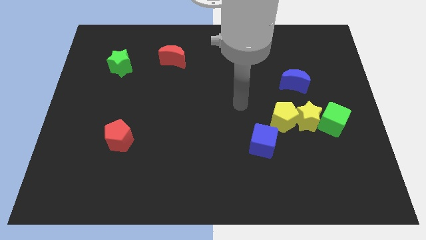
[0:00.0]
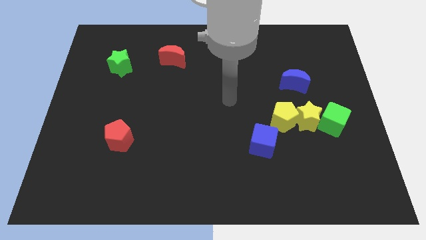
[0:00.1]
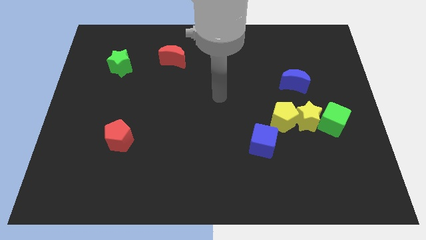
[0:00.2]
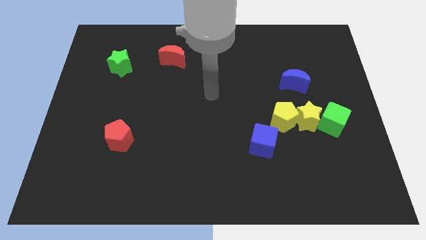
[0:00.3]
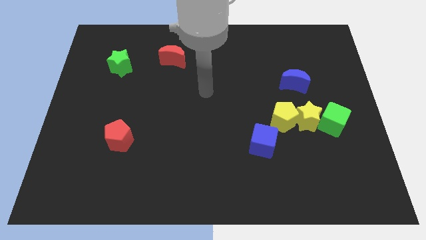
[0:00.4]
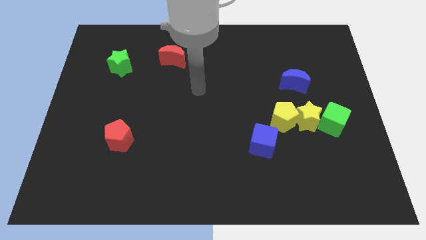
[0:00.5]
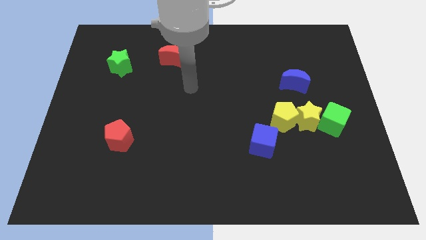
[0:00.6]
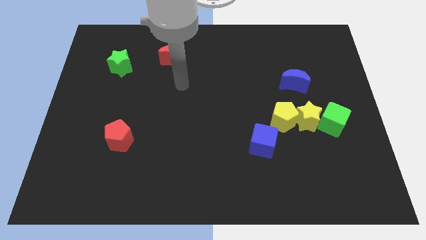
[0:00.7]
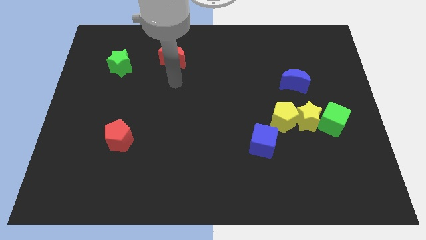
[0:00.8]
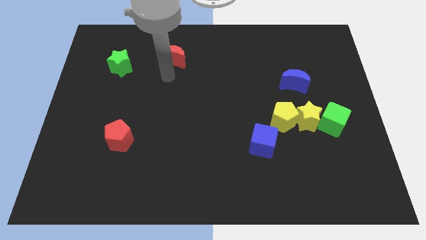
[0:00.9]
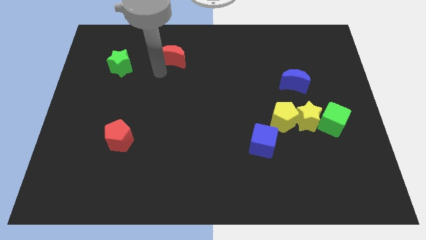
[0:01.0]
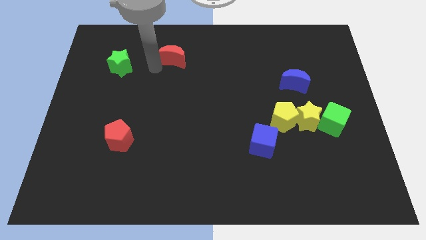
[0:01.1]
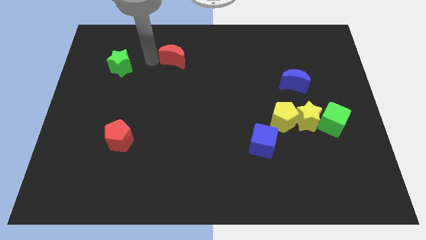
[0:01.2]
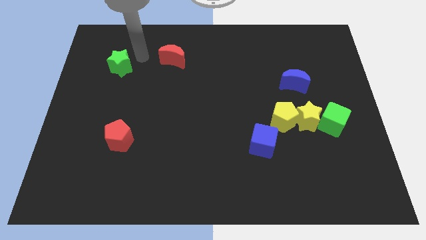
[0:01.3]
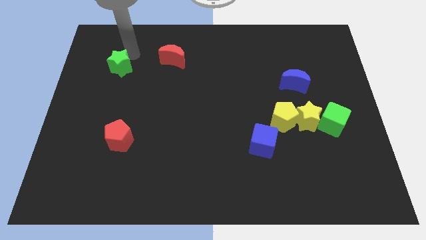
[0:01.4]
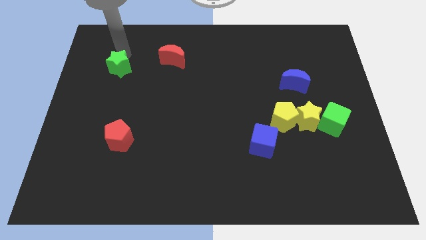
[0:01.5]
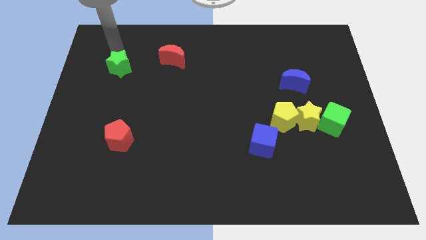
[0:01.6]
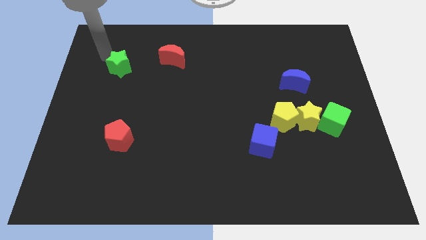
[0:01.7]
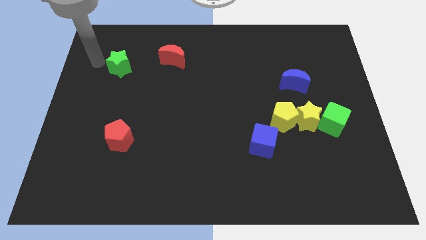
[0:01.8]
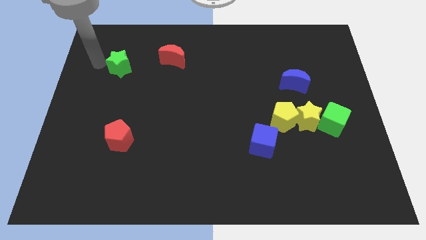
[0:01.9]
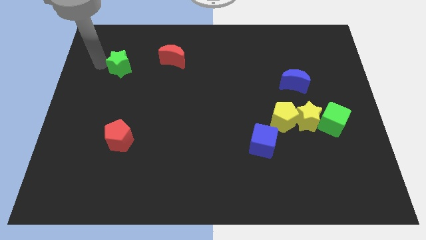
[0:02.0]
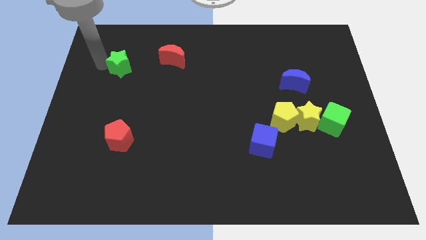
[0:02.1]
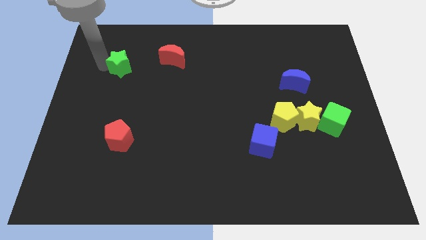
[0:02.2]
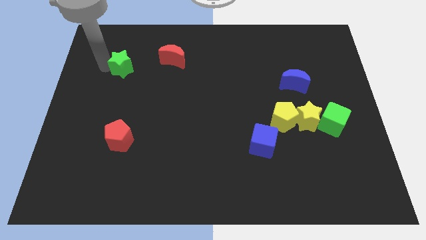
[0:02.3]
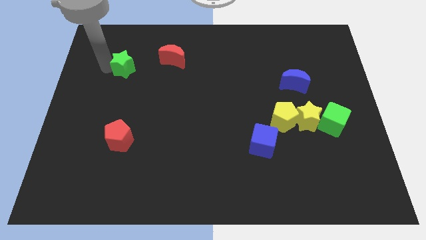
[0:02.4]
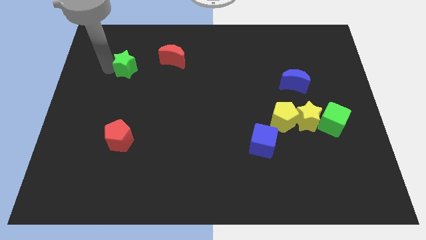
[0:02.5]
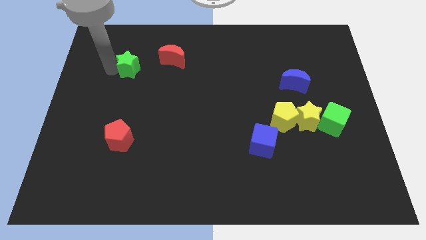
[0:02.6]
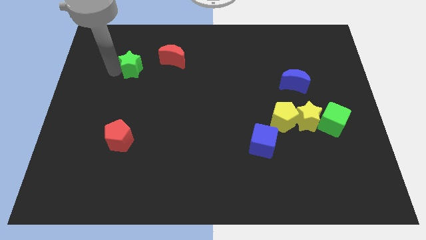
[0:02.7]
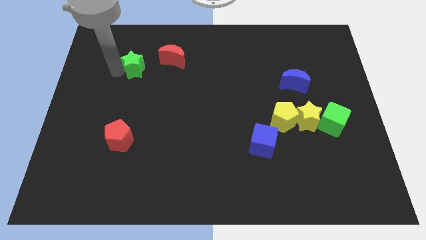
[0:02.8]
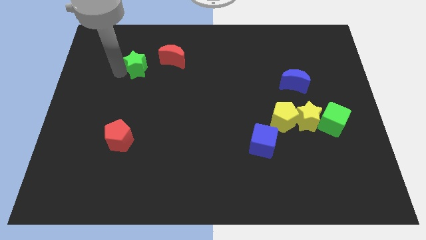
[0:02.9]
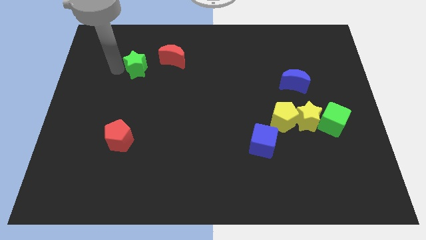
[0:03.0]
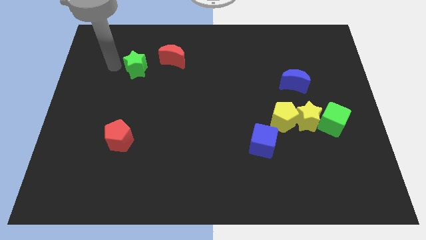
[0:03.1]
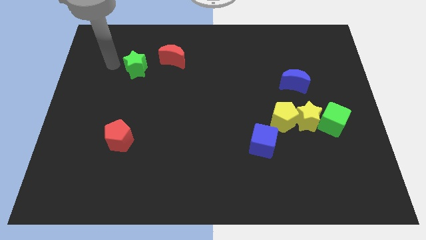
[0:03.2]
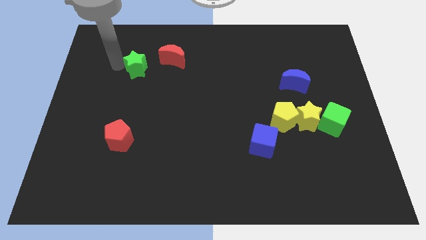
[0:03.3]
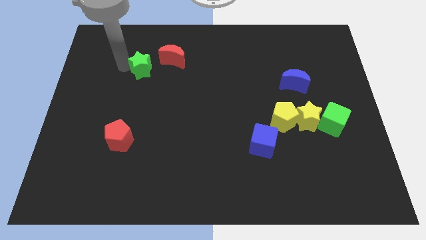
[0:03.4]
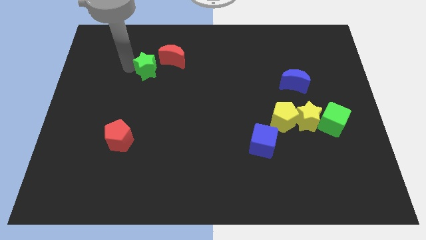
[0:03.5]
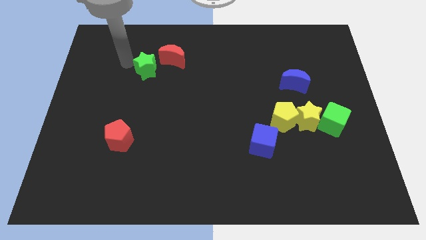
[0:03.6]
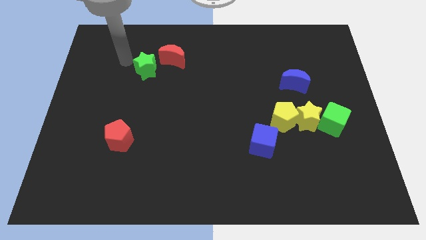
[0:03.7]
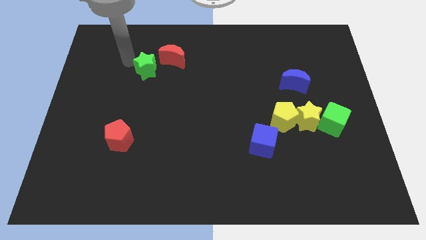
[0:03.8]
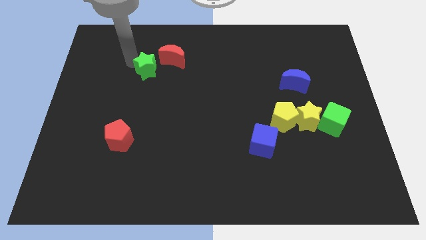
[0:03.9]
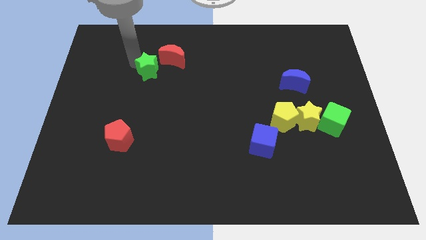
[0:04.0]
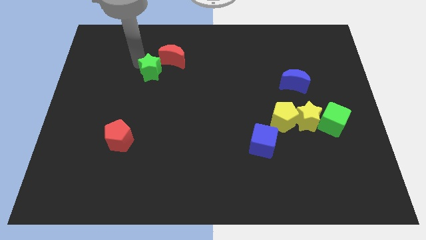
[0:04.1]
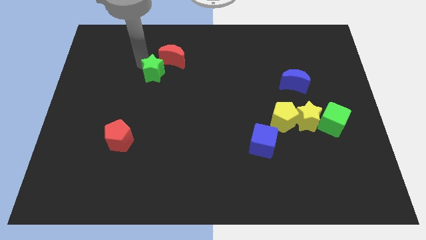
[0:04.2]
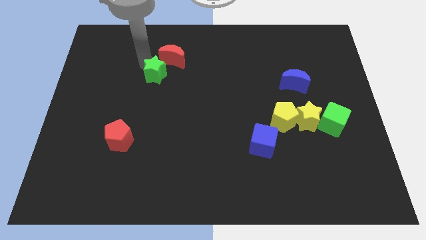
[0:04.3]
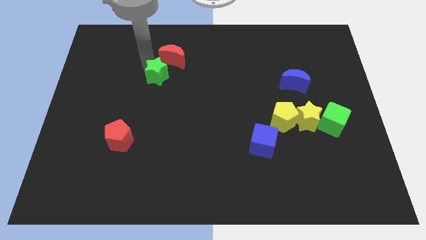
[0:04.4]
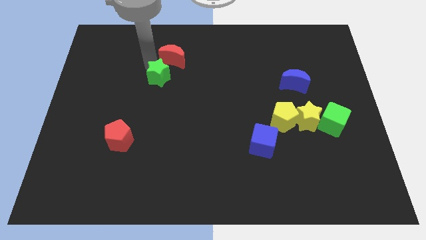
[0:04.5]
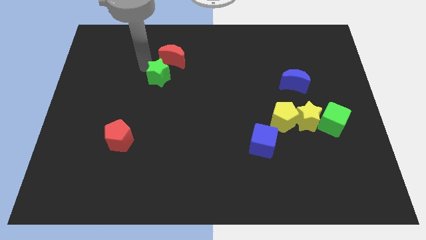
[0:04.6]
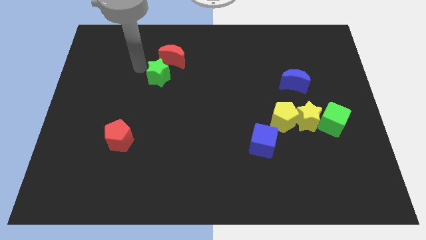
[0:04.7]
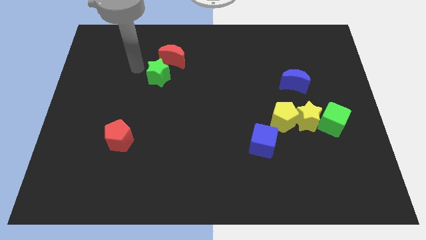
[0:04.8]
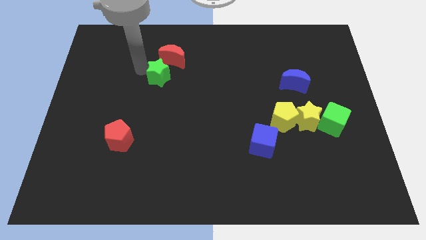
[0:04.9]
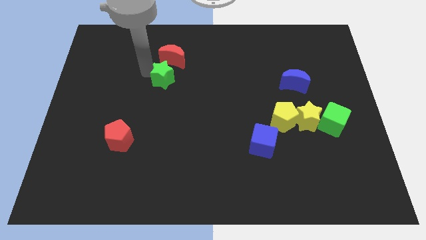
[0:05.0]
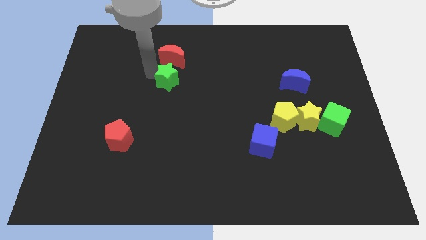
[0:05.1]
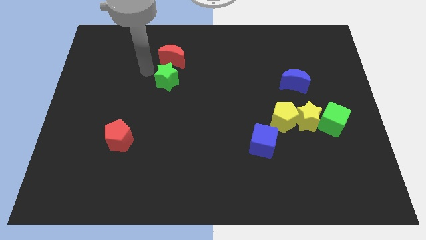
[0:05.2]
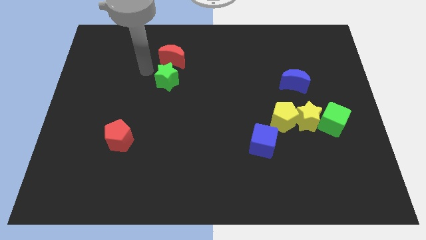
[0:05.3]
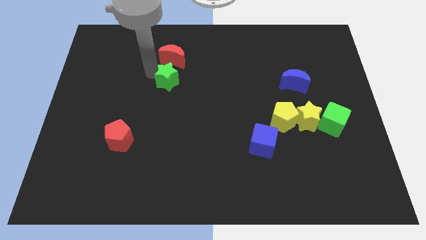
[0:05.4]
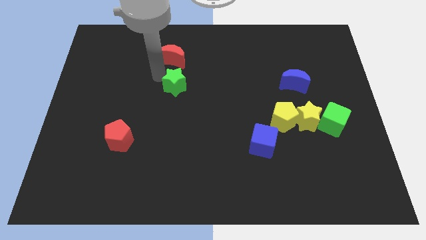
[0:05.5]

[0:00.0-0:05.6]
slide the green star to the center of the board

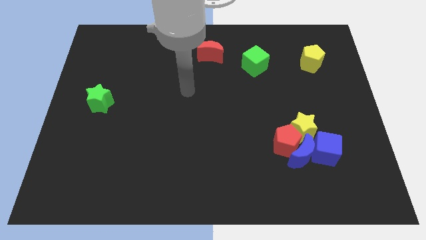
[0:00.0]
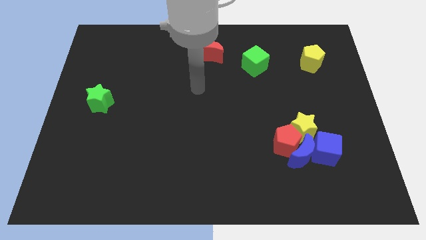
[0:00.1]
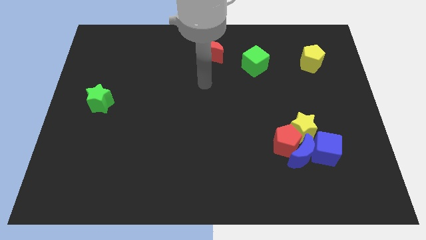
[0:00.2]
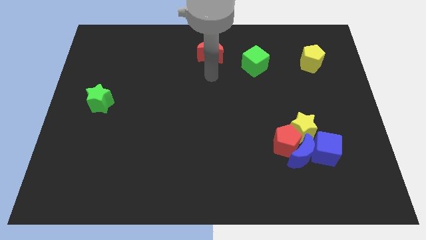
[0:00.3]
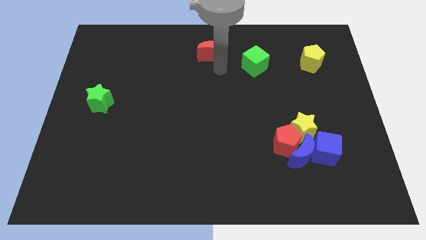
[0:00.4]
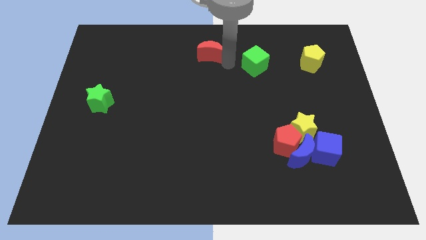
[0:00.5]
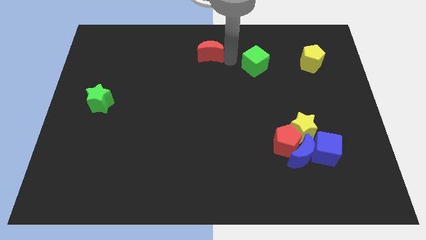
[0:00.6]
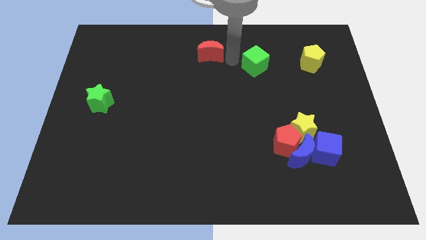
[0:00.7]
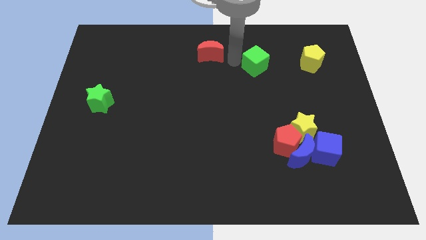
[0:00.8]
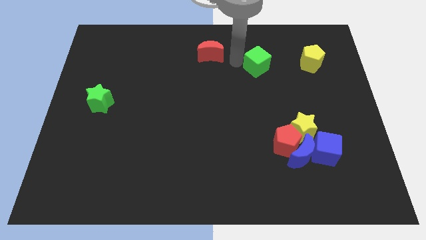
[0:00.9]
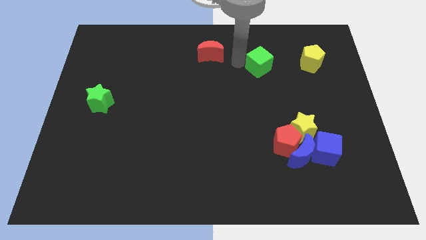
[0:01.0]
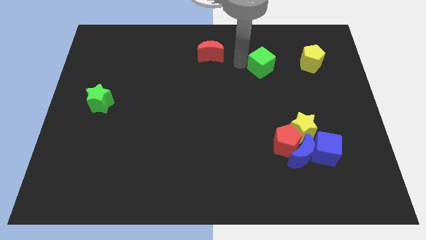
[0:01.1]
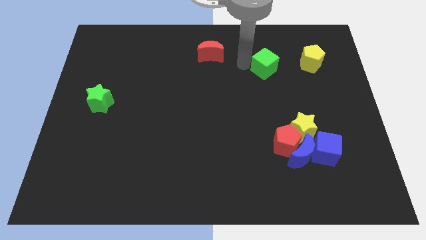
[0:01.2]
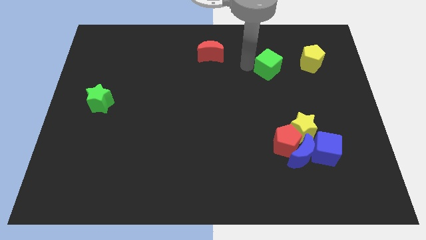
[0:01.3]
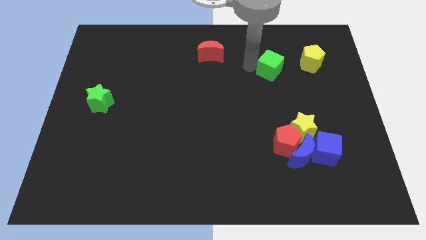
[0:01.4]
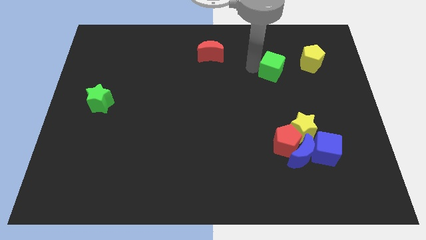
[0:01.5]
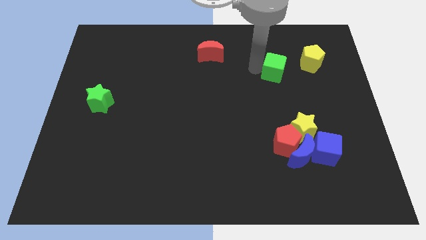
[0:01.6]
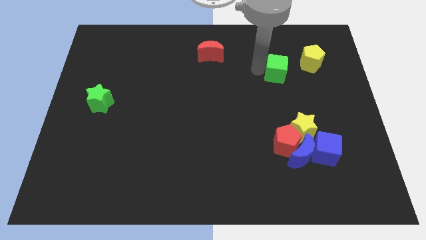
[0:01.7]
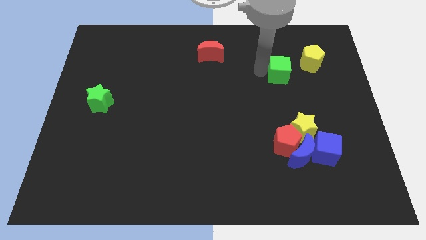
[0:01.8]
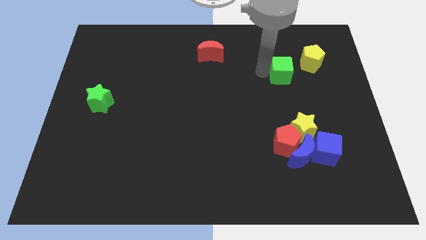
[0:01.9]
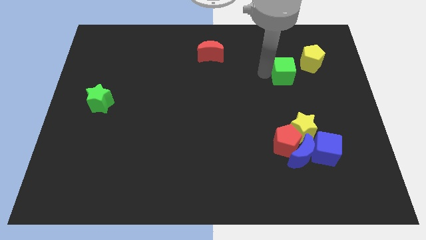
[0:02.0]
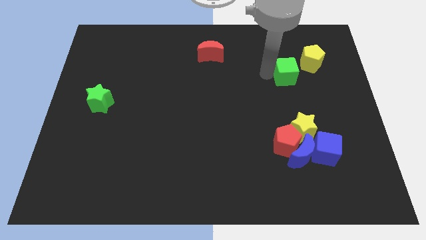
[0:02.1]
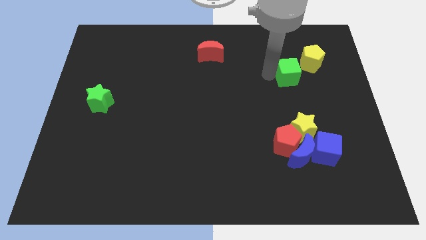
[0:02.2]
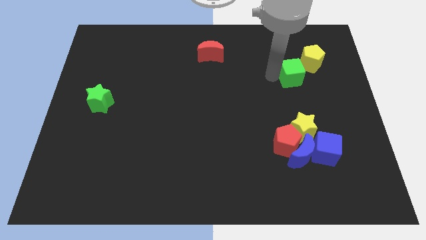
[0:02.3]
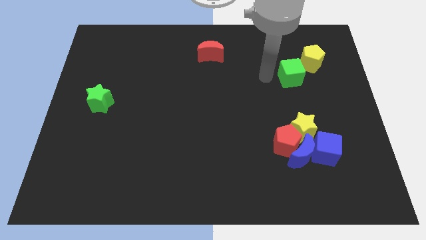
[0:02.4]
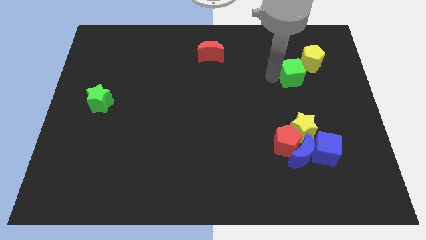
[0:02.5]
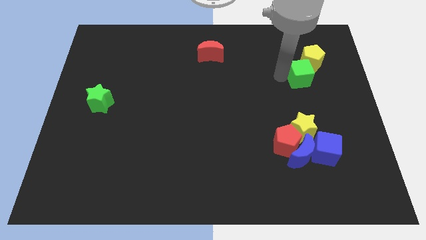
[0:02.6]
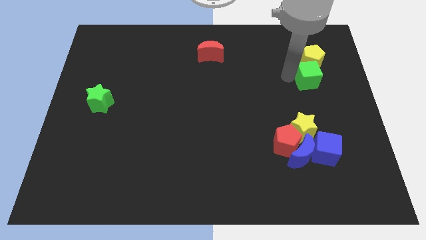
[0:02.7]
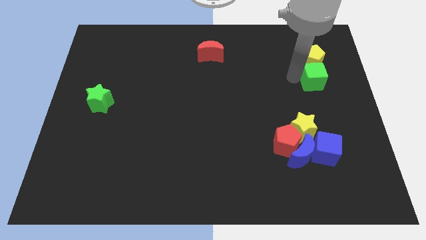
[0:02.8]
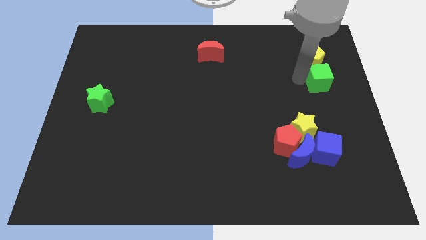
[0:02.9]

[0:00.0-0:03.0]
move the green cube to the right side
